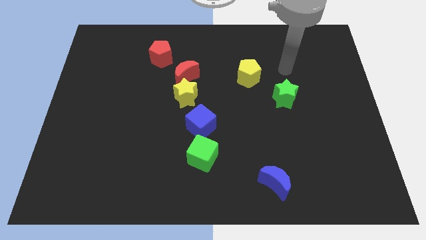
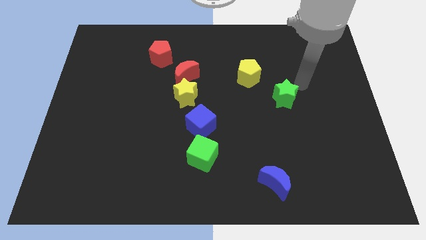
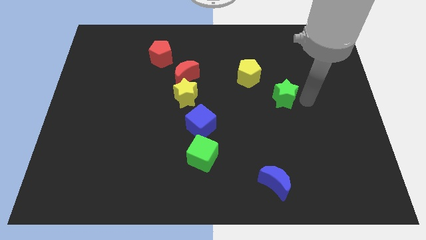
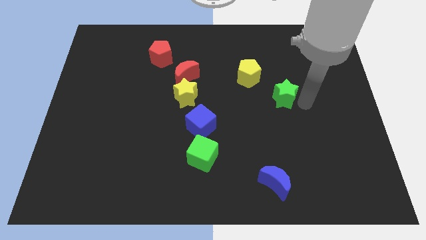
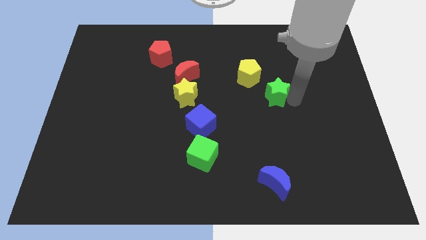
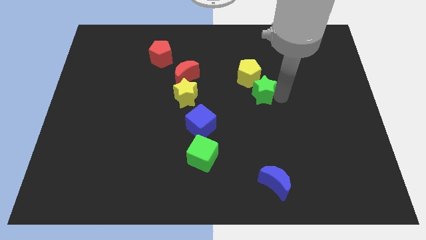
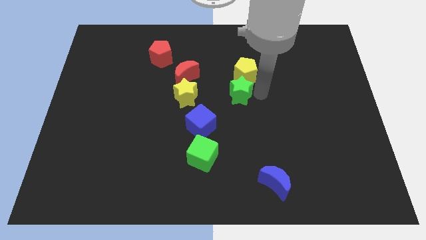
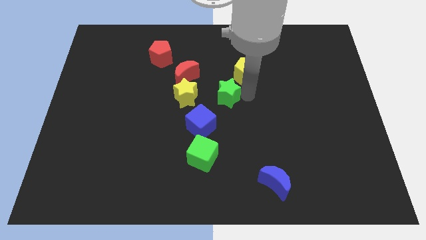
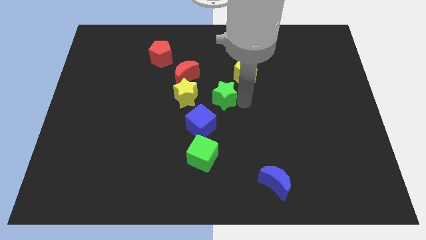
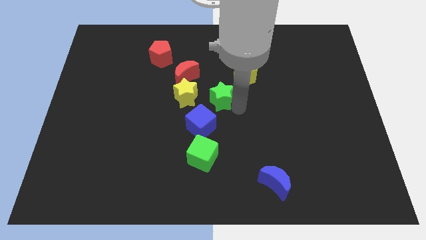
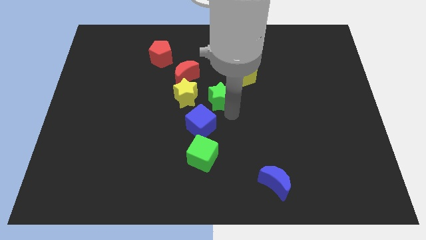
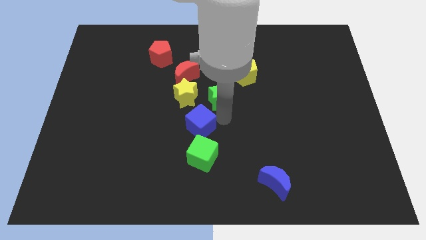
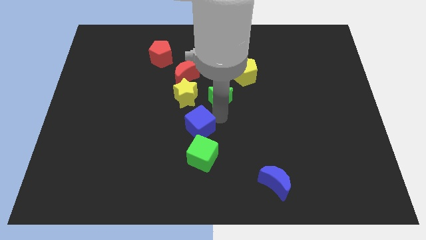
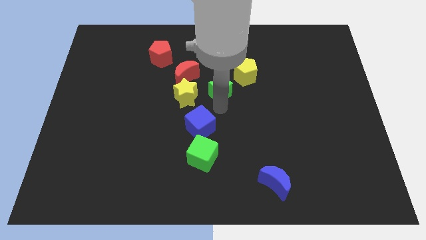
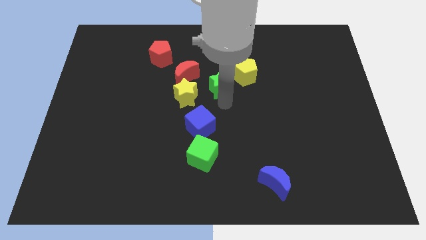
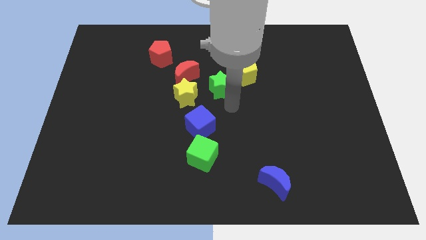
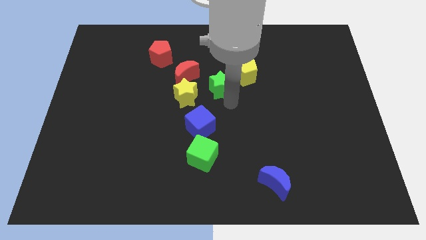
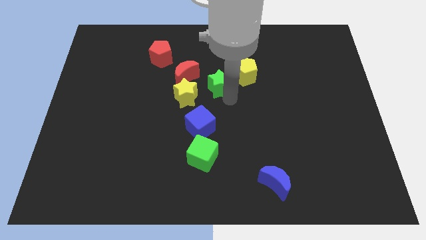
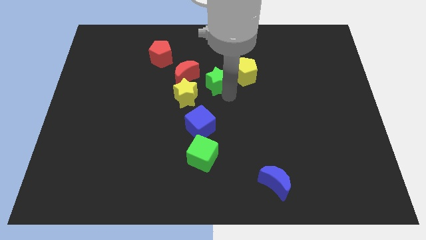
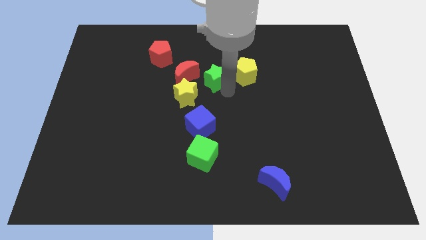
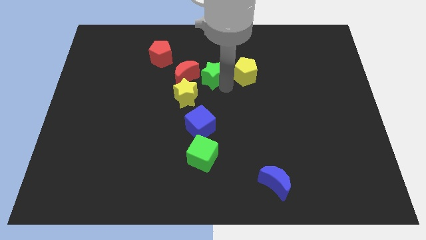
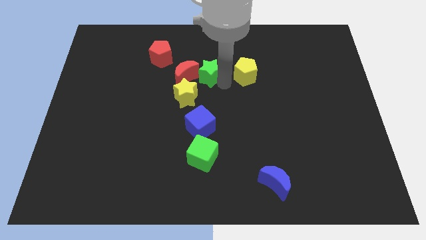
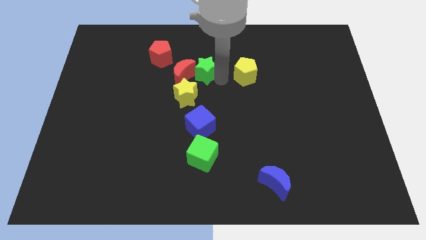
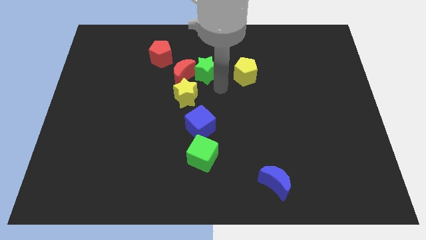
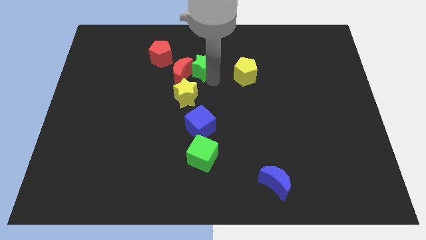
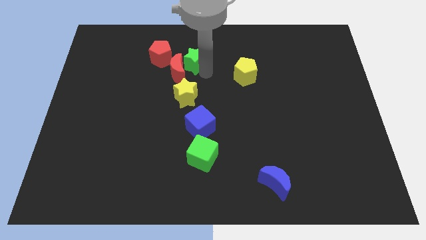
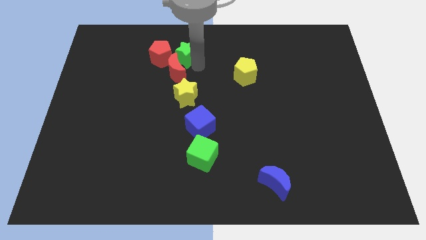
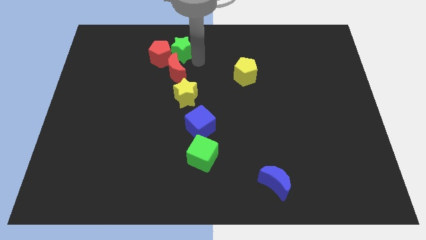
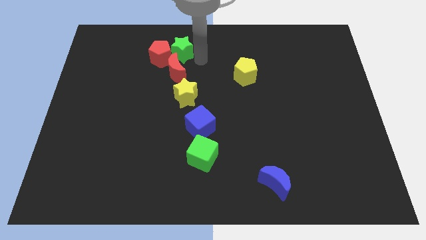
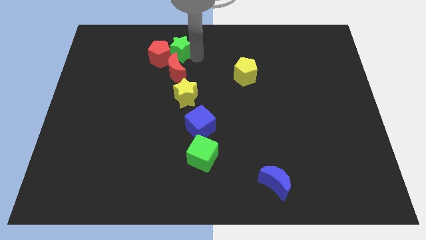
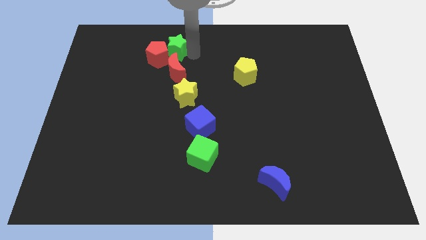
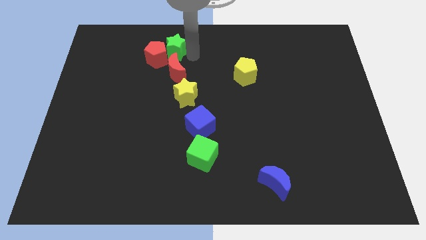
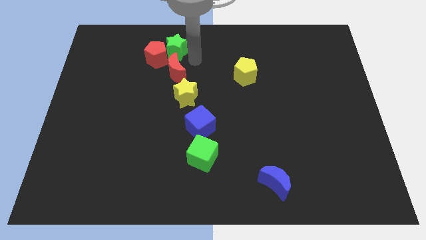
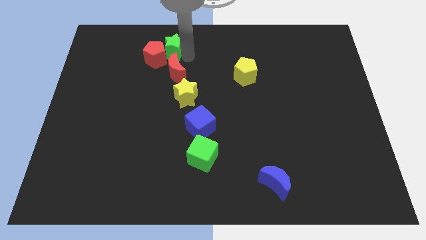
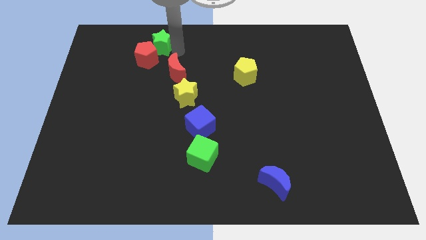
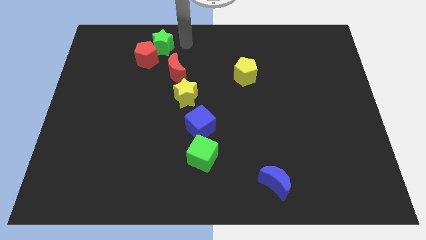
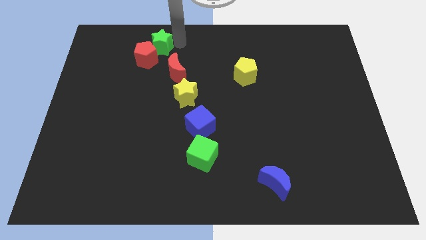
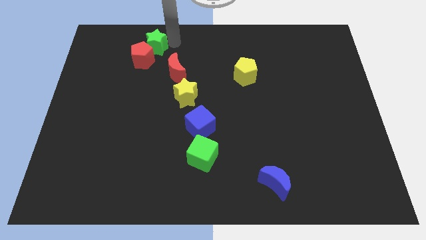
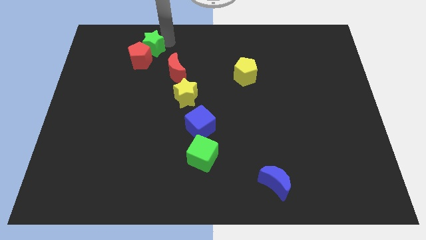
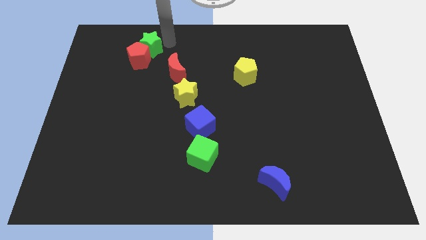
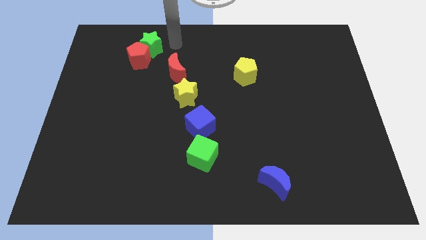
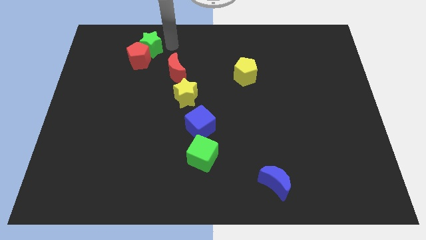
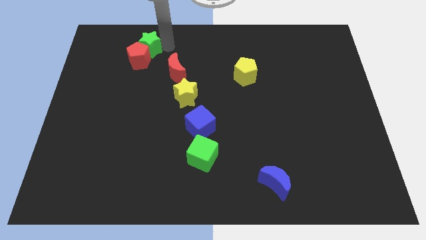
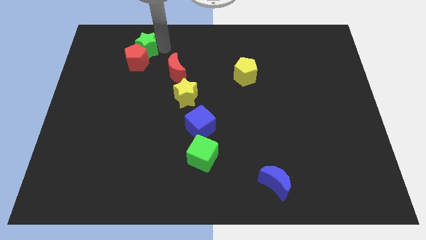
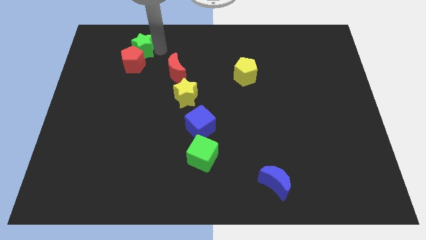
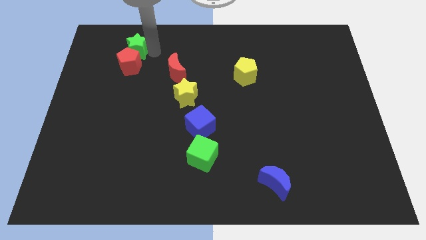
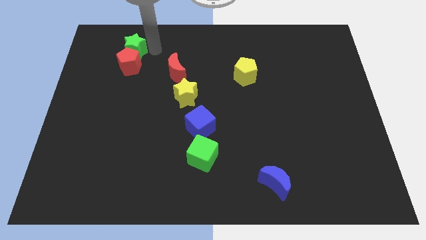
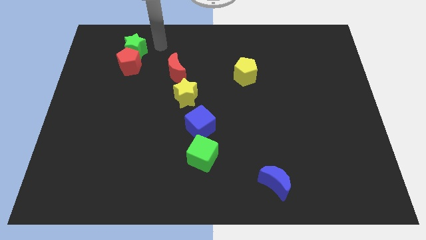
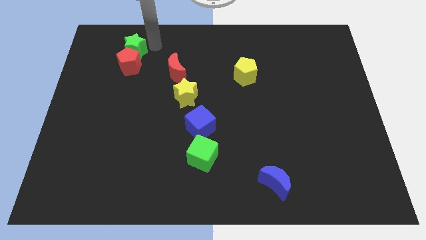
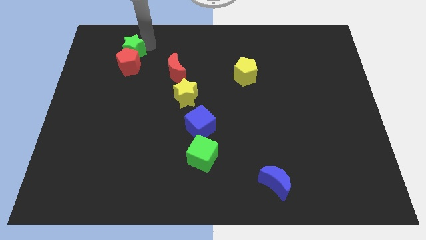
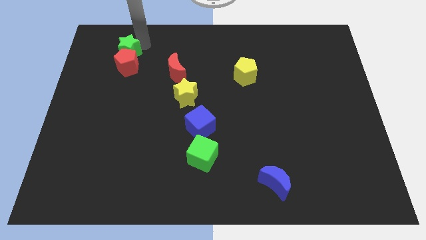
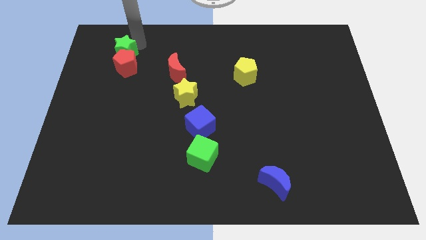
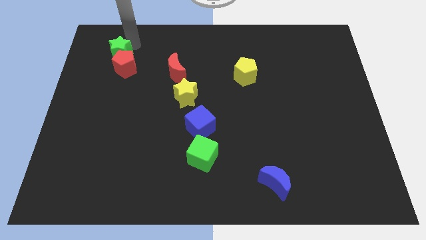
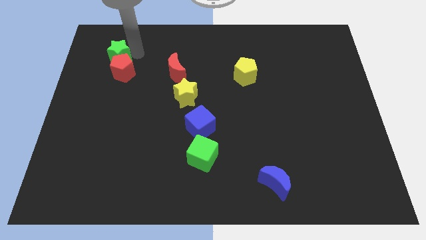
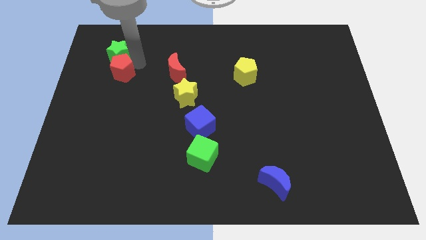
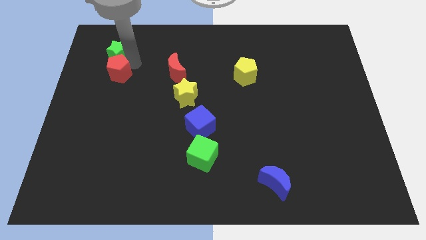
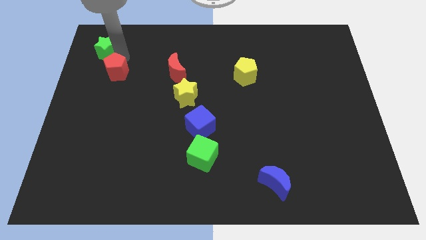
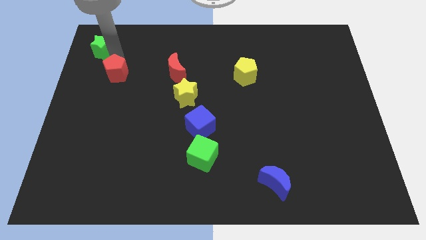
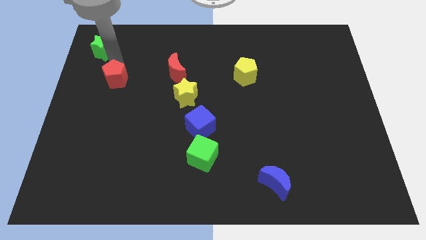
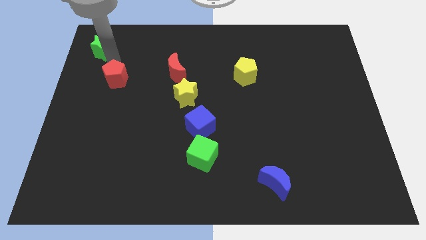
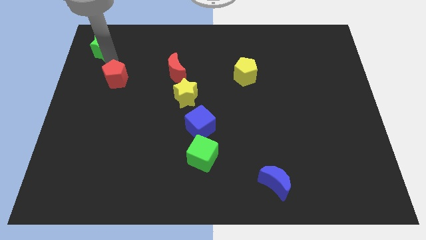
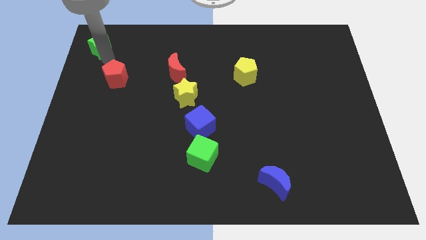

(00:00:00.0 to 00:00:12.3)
put the green star to the upper left corner
